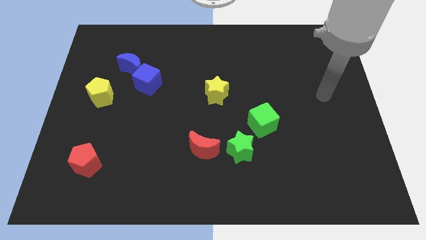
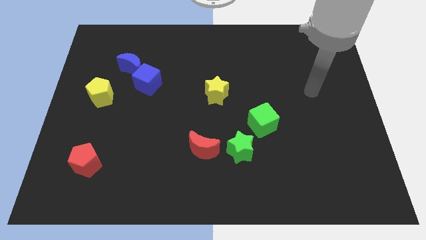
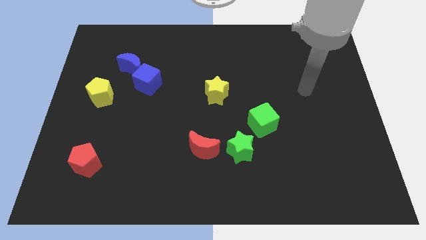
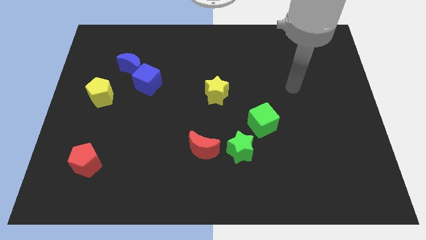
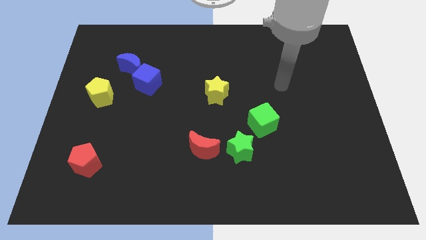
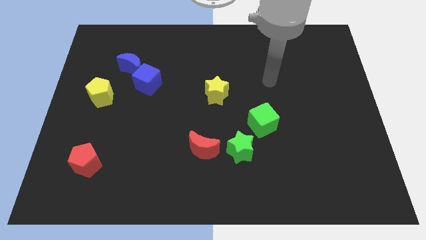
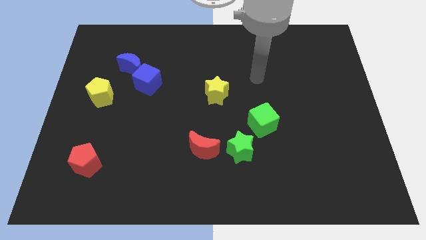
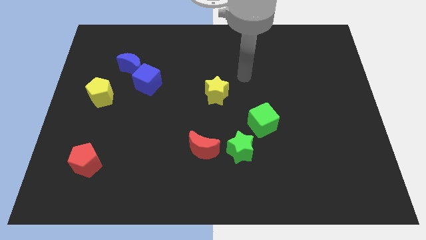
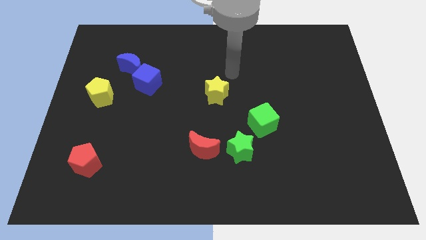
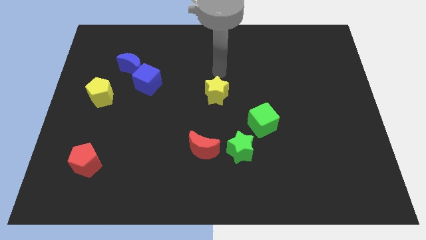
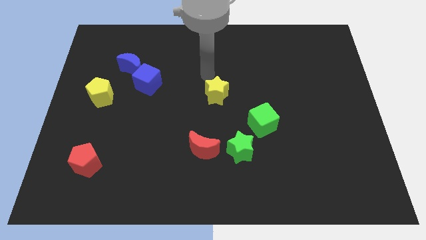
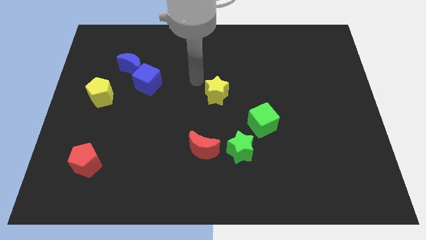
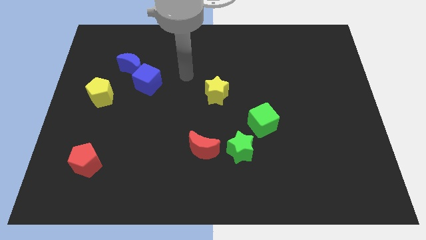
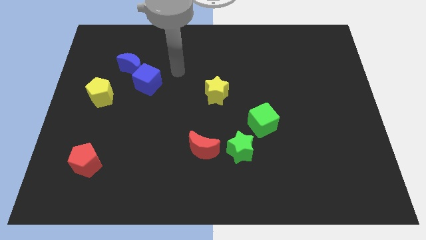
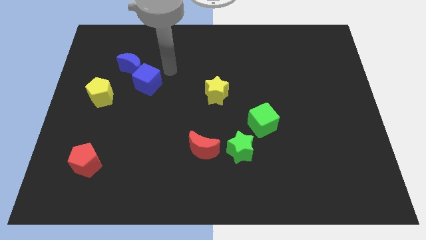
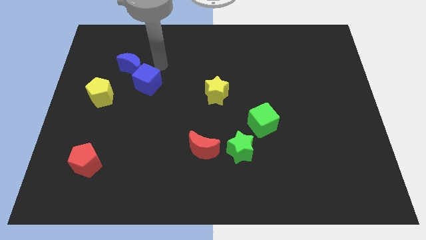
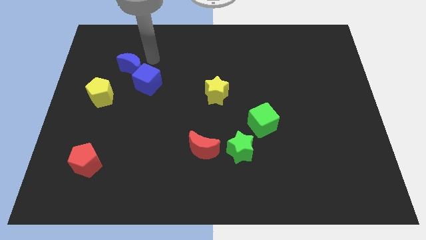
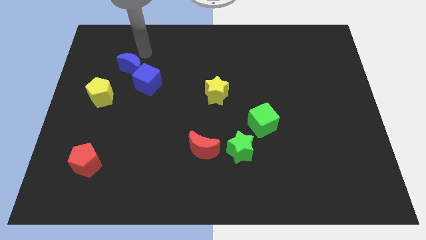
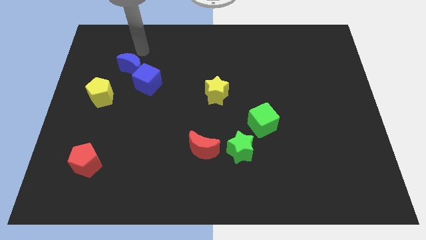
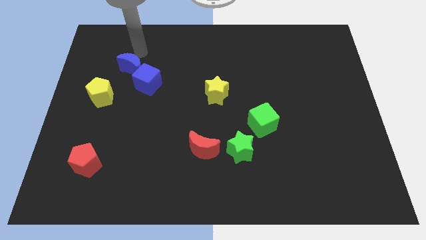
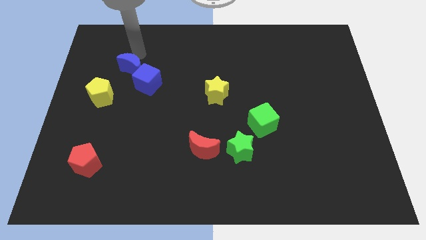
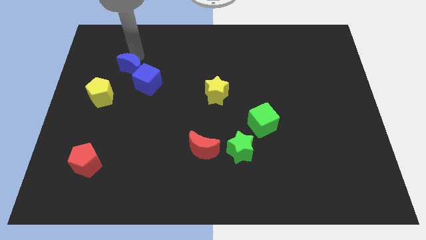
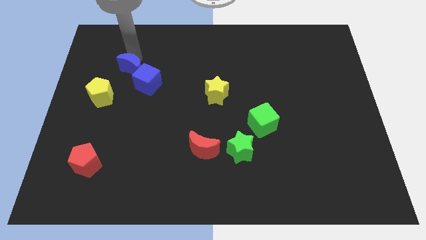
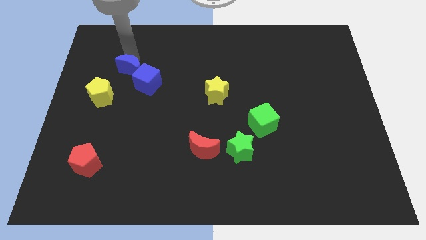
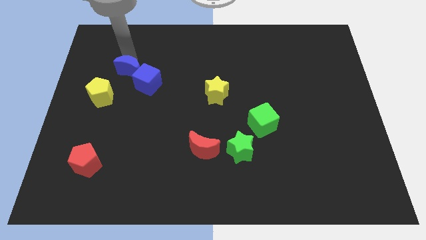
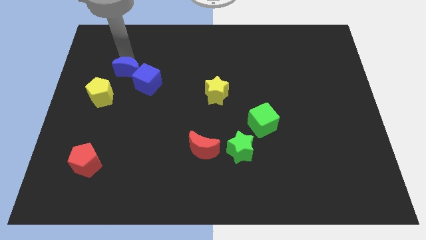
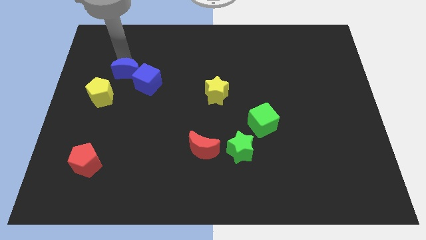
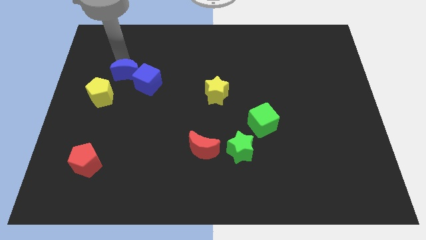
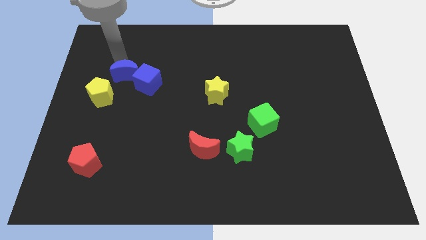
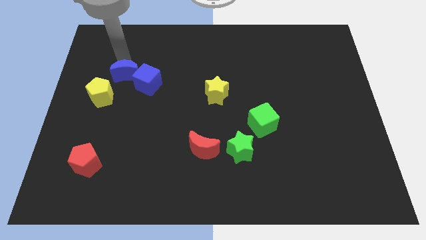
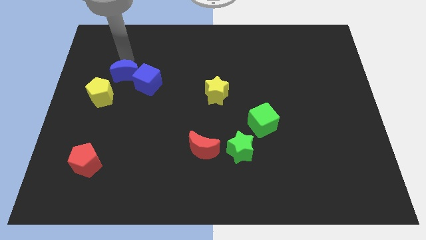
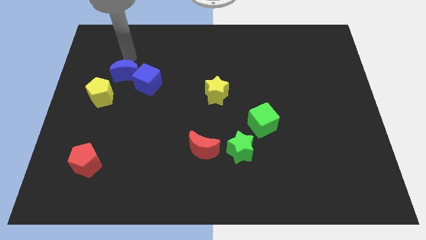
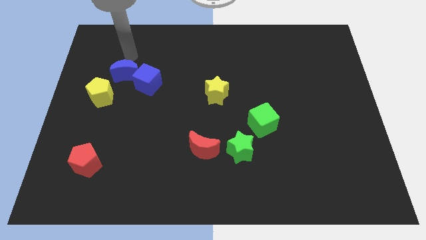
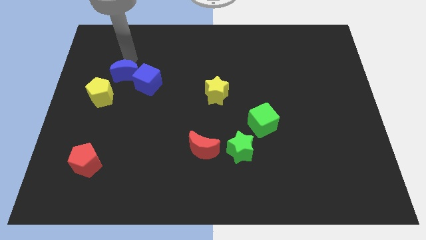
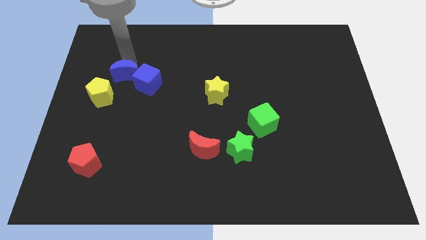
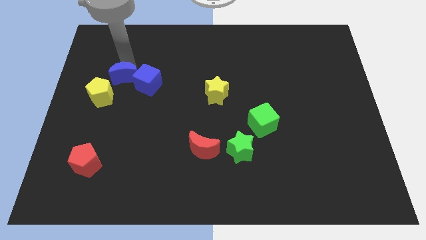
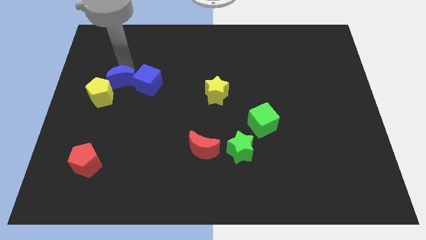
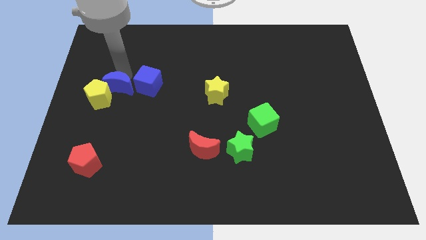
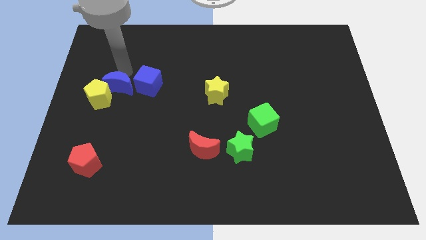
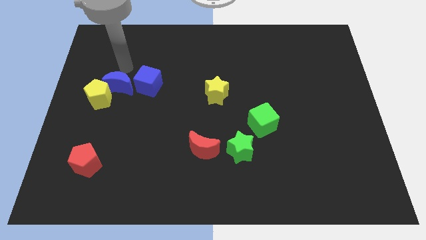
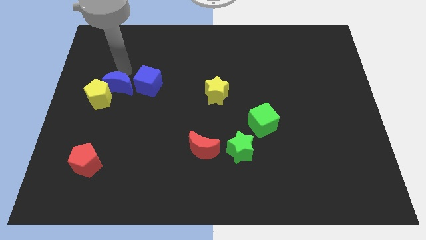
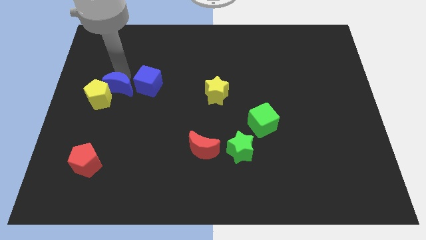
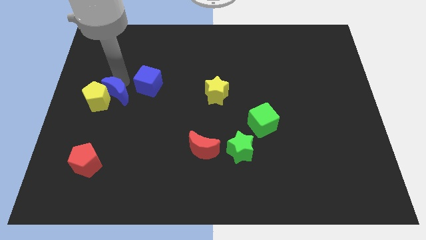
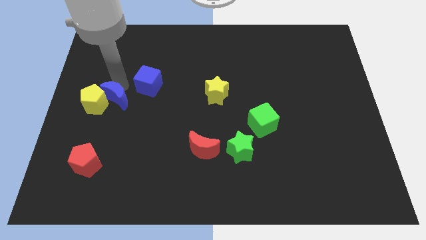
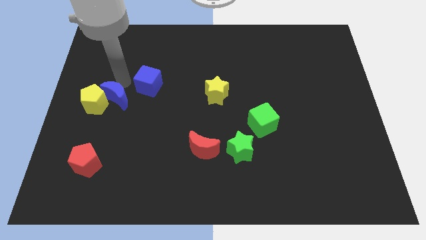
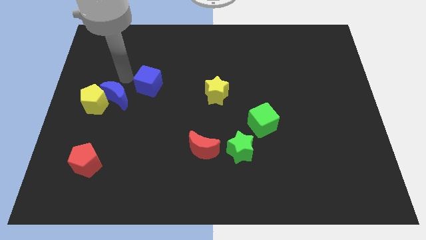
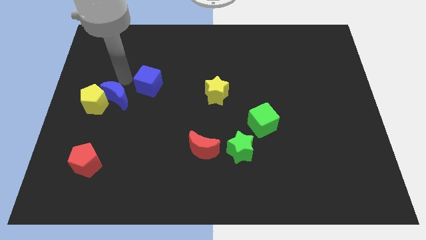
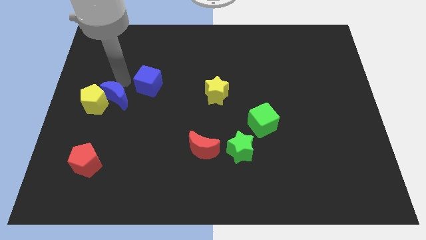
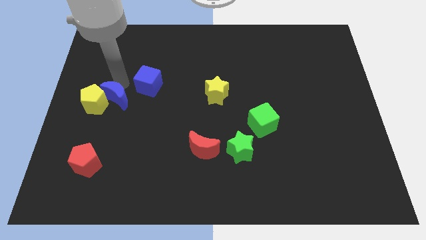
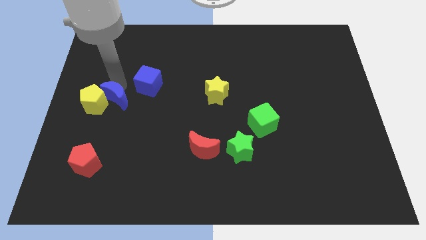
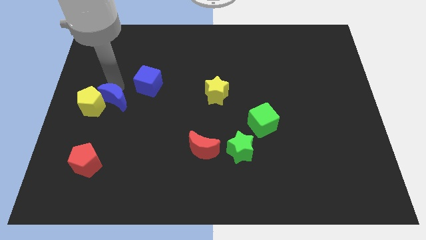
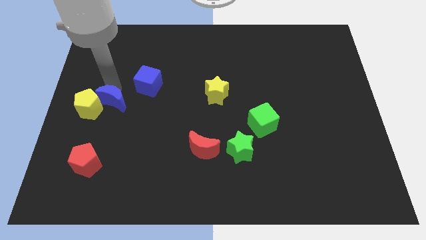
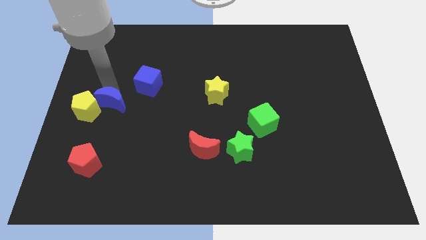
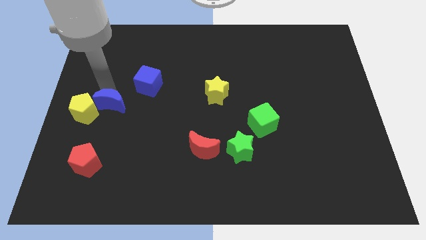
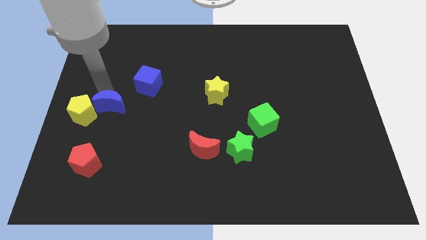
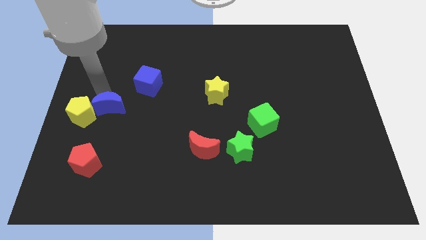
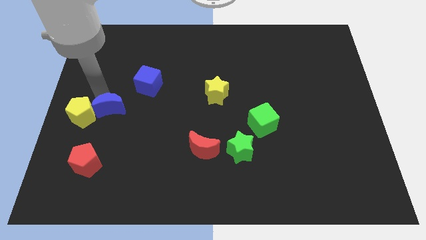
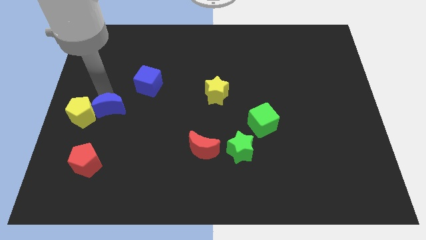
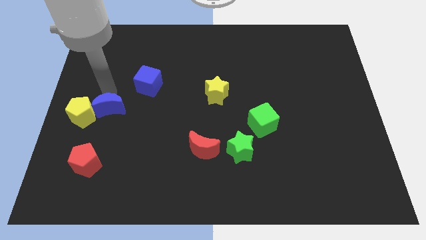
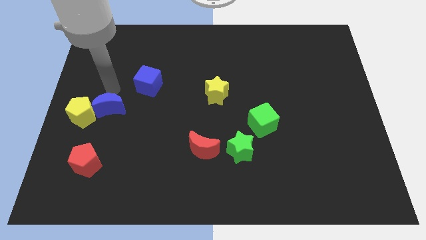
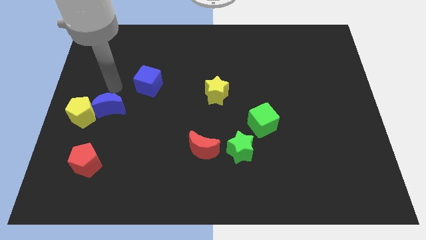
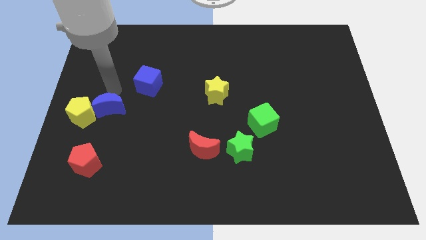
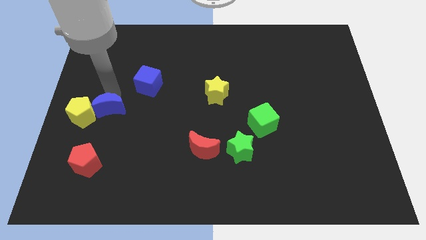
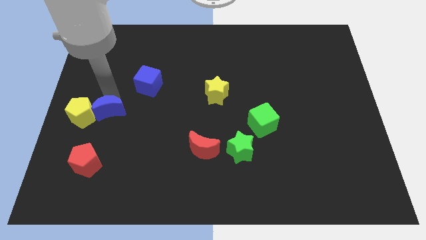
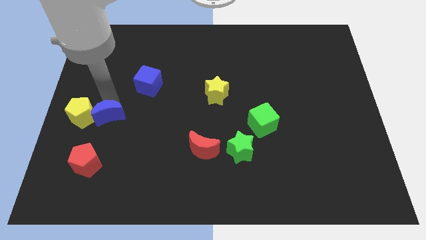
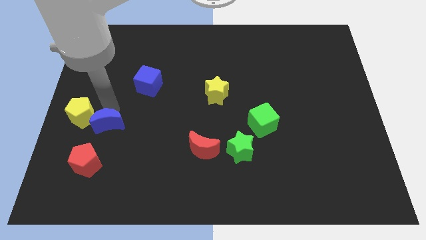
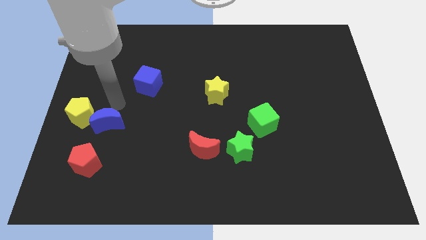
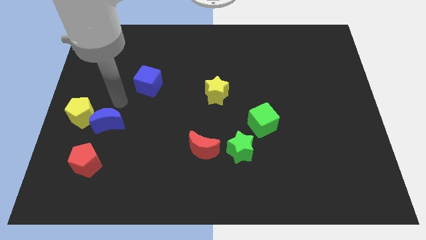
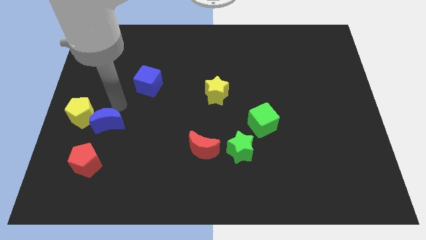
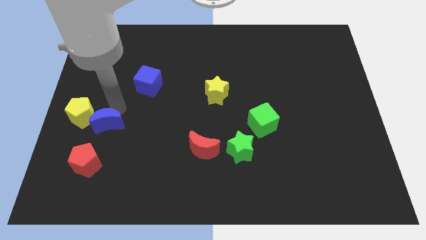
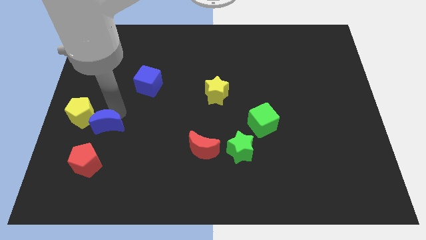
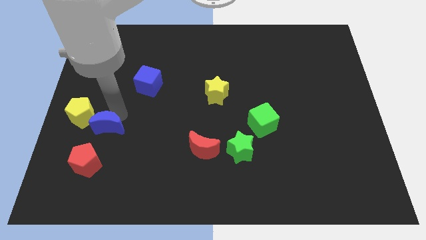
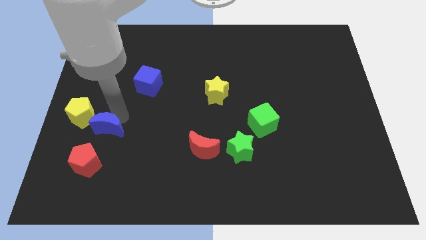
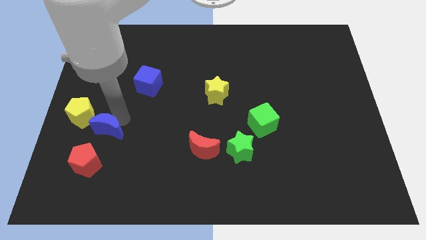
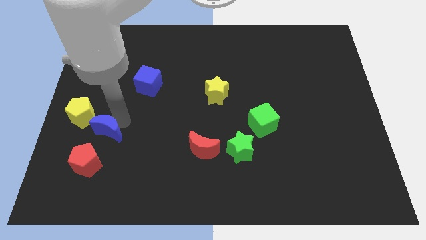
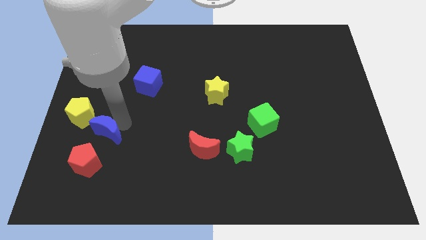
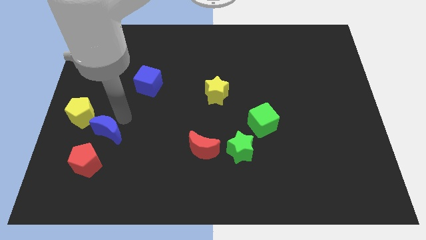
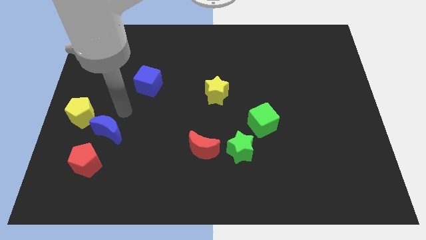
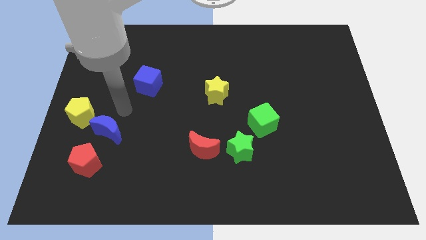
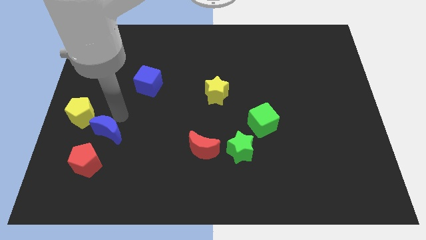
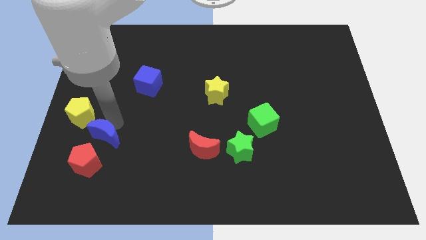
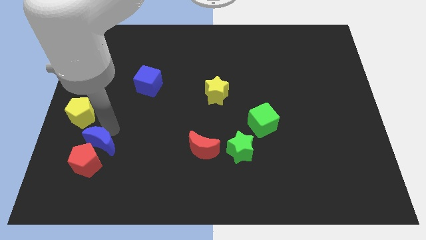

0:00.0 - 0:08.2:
slide the blue moon towards the red pentagon
